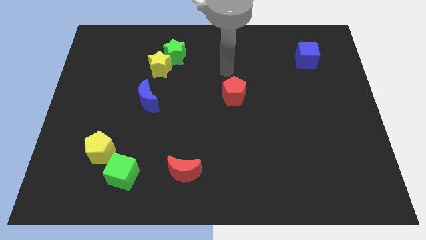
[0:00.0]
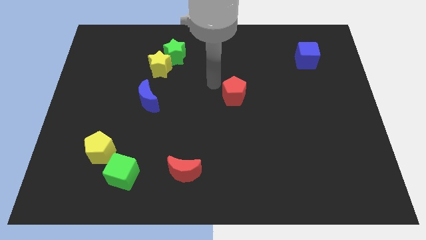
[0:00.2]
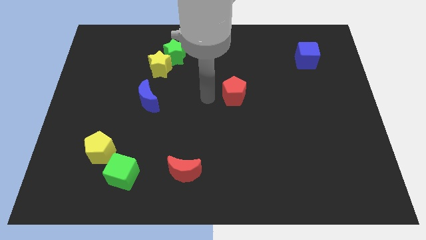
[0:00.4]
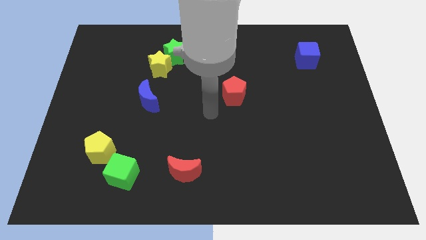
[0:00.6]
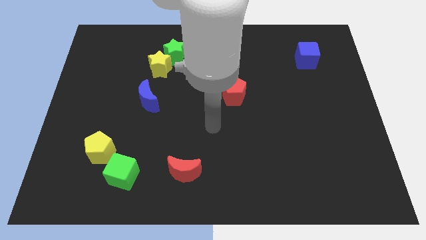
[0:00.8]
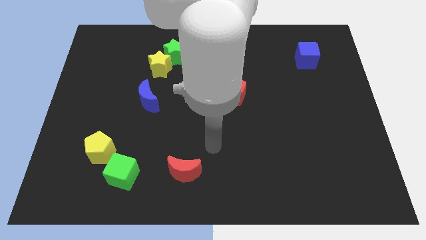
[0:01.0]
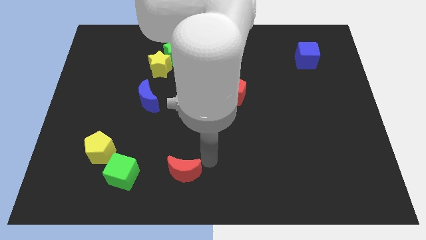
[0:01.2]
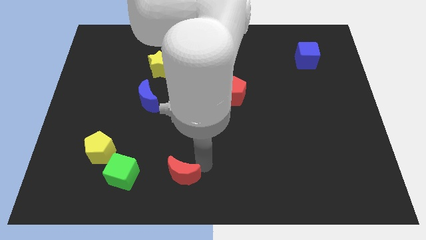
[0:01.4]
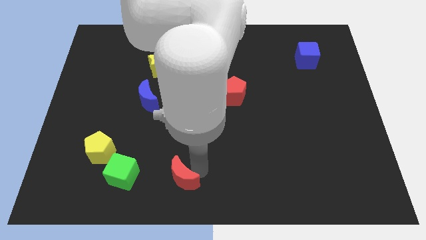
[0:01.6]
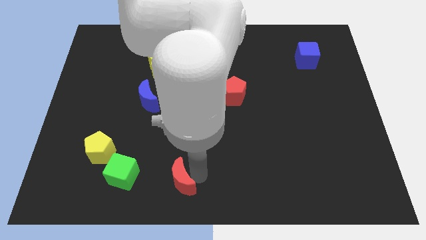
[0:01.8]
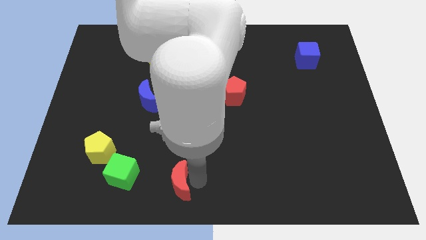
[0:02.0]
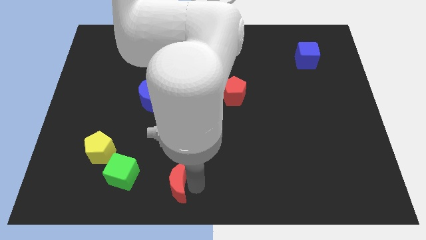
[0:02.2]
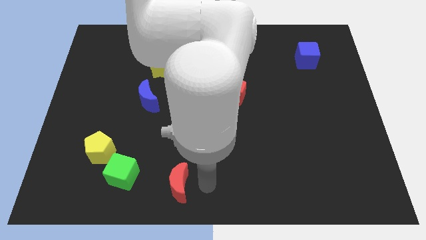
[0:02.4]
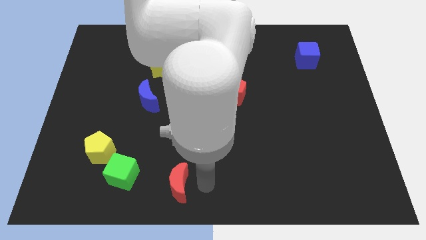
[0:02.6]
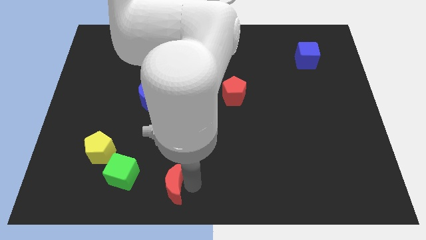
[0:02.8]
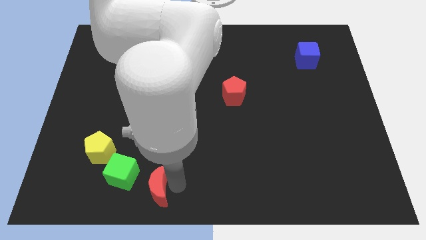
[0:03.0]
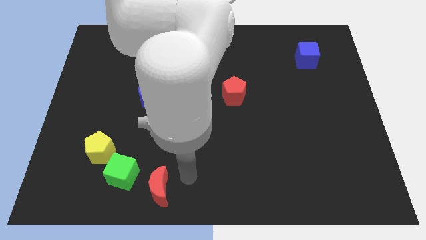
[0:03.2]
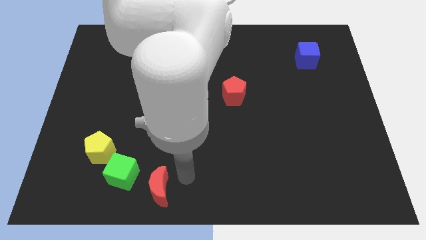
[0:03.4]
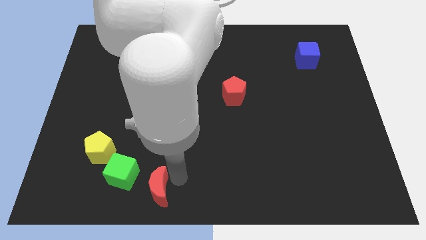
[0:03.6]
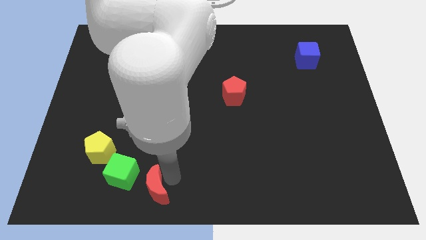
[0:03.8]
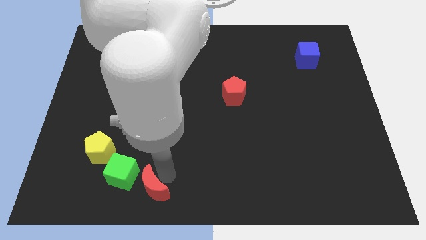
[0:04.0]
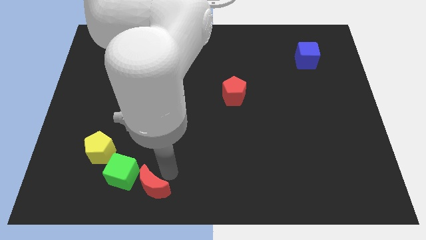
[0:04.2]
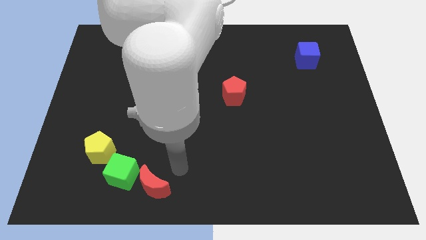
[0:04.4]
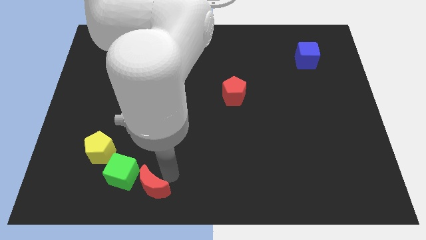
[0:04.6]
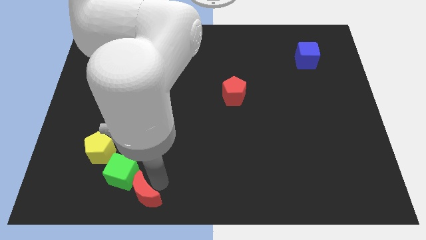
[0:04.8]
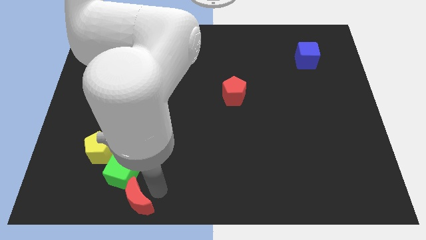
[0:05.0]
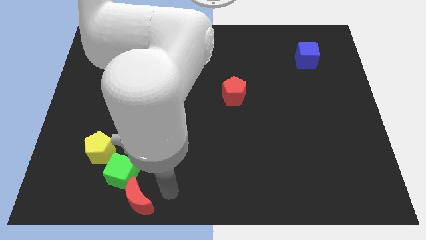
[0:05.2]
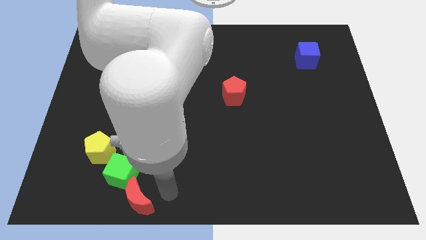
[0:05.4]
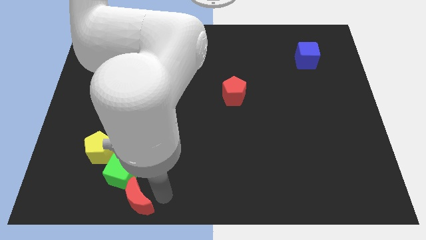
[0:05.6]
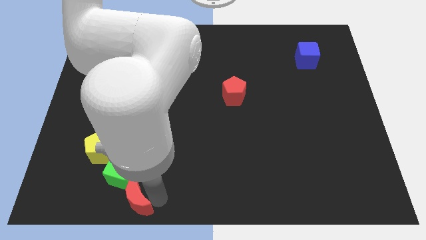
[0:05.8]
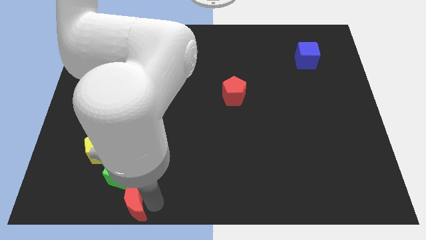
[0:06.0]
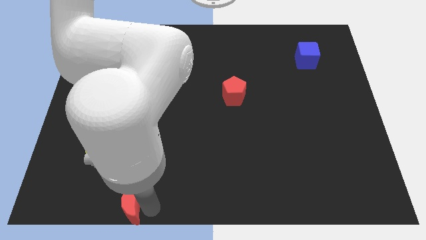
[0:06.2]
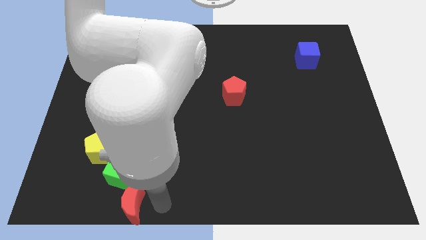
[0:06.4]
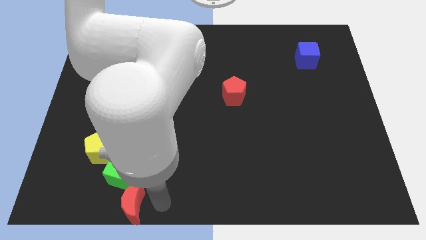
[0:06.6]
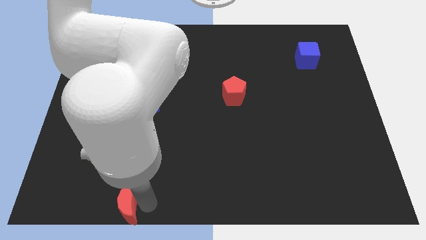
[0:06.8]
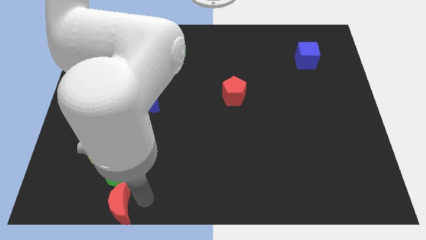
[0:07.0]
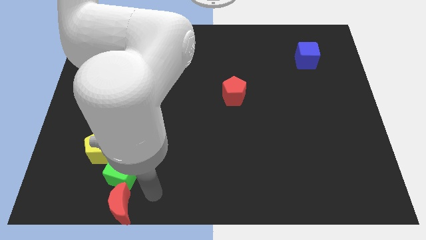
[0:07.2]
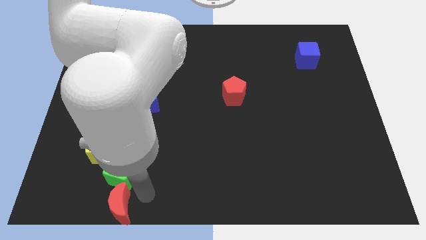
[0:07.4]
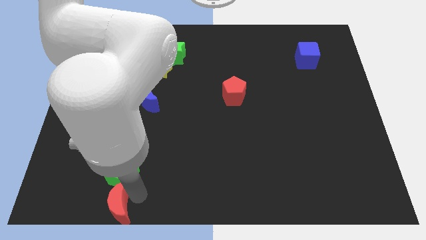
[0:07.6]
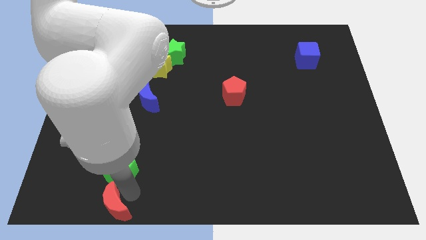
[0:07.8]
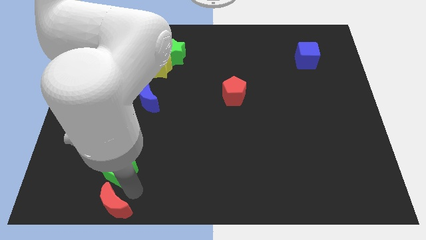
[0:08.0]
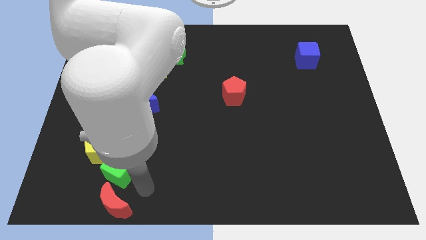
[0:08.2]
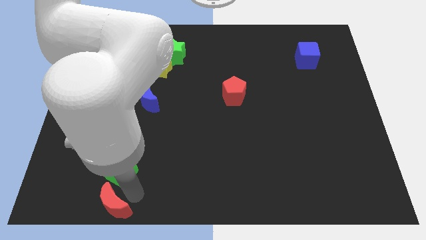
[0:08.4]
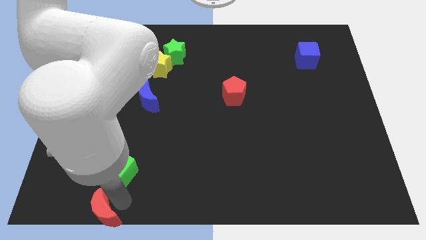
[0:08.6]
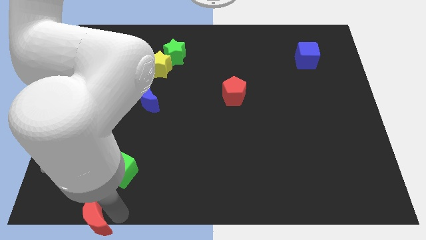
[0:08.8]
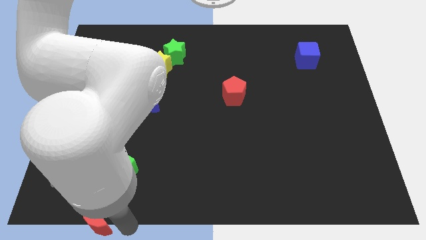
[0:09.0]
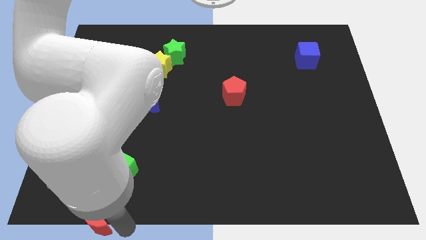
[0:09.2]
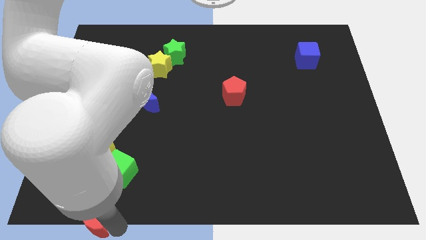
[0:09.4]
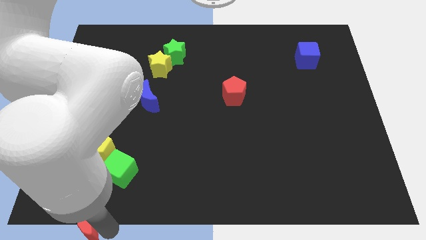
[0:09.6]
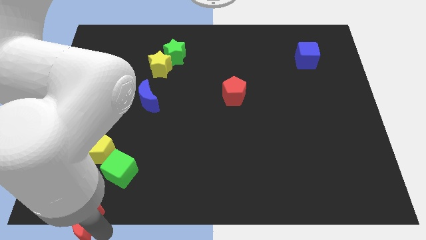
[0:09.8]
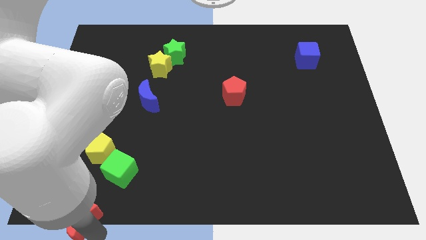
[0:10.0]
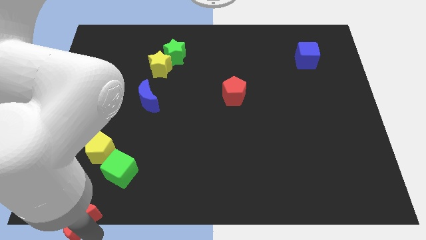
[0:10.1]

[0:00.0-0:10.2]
put the red moon to the bottom left

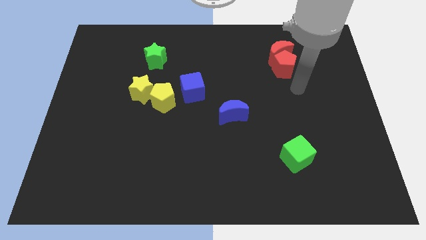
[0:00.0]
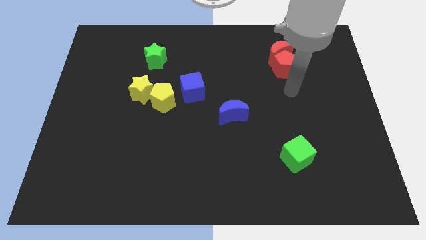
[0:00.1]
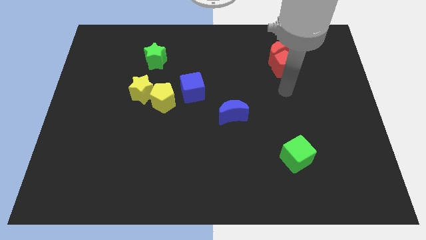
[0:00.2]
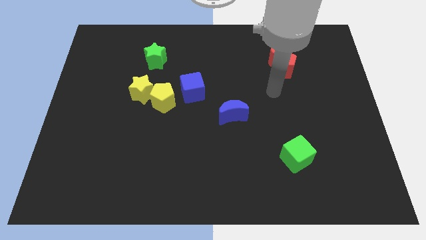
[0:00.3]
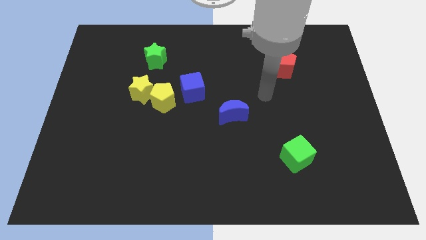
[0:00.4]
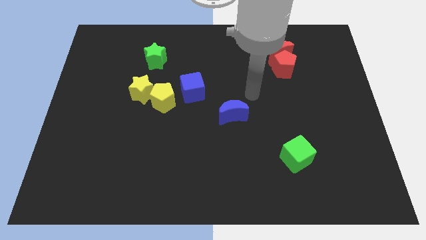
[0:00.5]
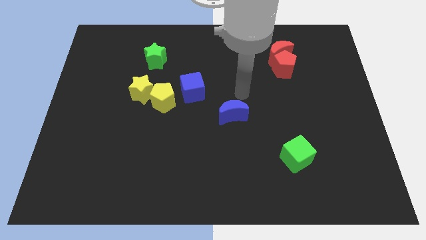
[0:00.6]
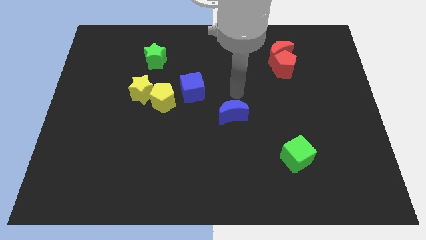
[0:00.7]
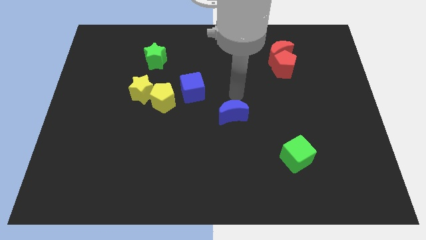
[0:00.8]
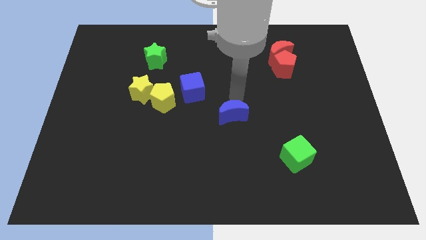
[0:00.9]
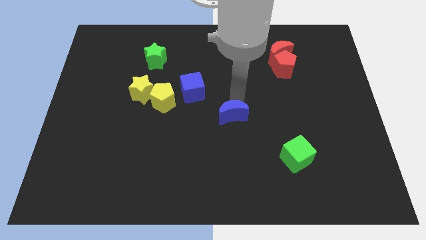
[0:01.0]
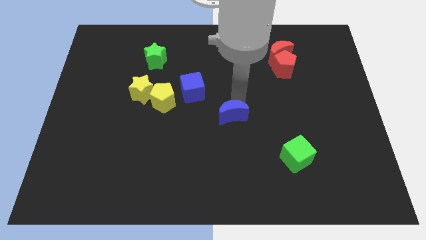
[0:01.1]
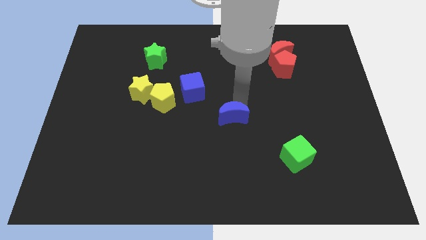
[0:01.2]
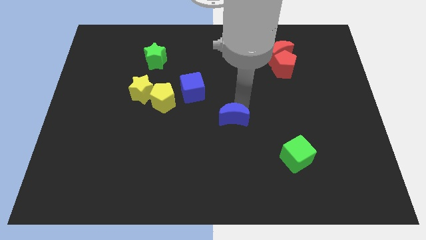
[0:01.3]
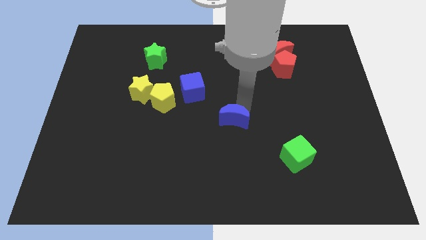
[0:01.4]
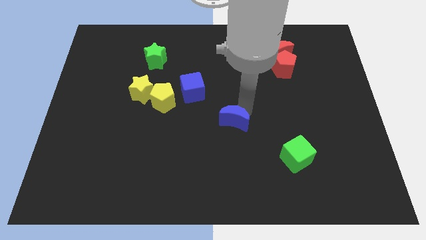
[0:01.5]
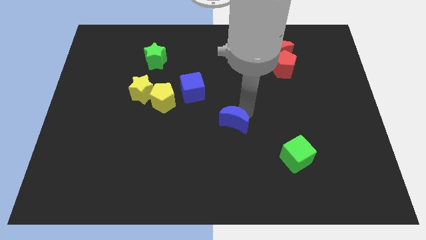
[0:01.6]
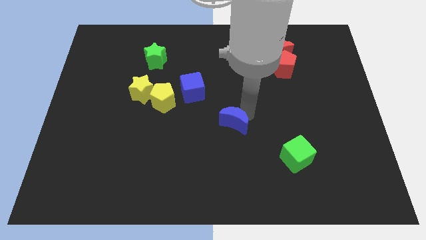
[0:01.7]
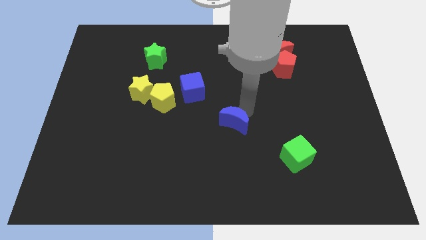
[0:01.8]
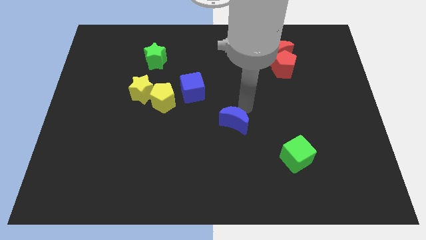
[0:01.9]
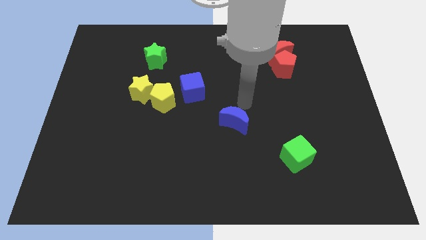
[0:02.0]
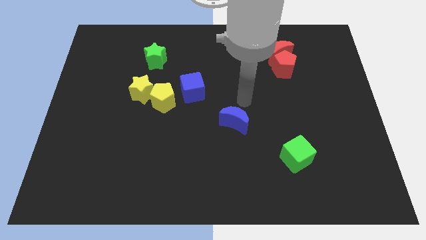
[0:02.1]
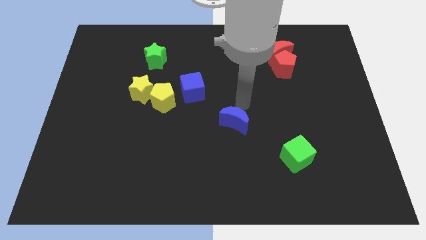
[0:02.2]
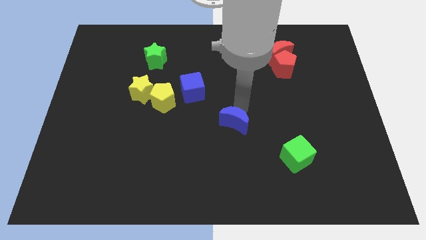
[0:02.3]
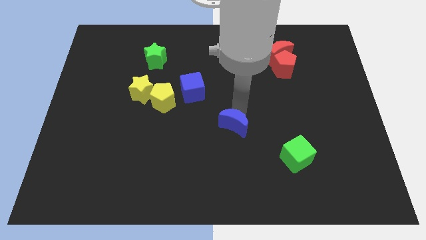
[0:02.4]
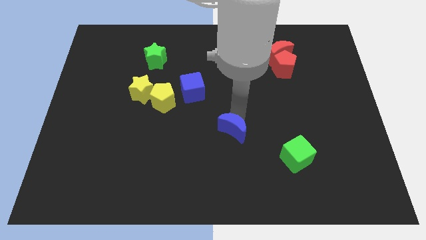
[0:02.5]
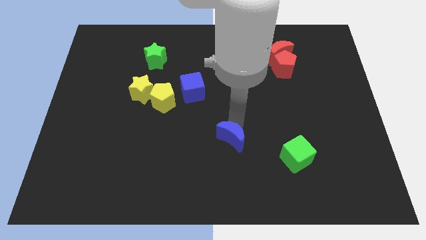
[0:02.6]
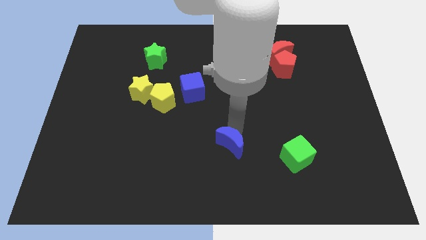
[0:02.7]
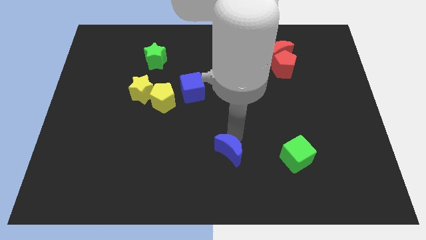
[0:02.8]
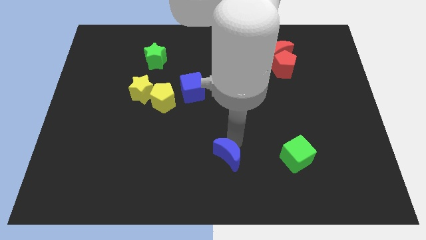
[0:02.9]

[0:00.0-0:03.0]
put the blue moon to the bottom
